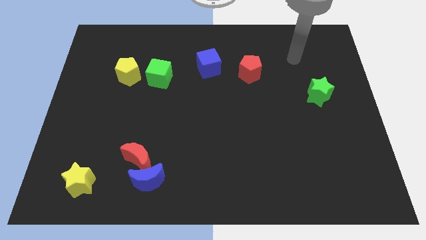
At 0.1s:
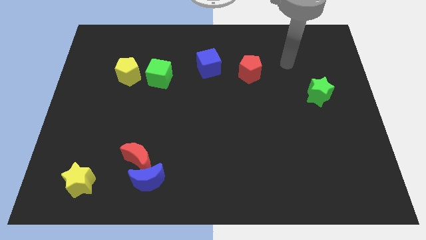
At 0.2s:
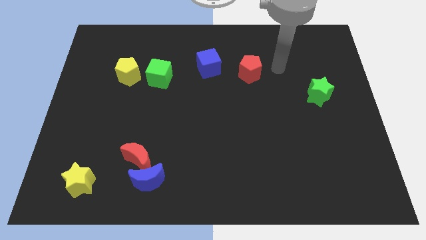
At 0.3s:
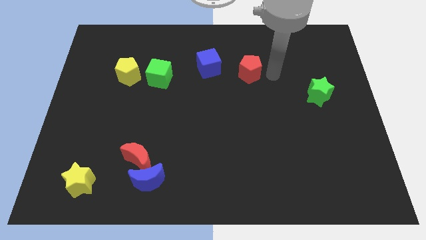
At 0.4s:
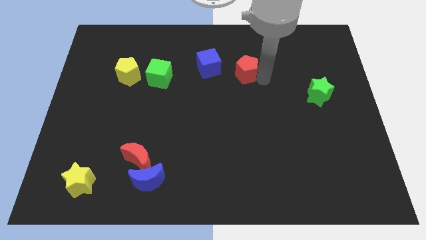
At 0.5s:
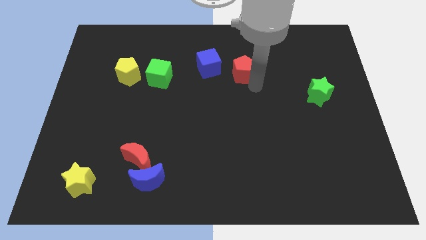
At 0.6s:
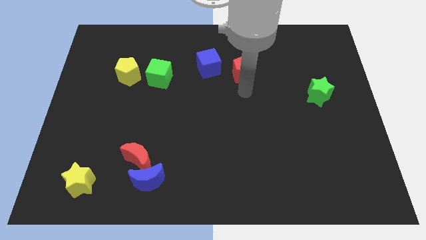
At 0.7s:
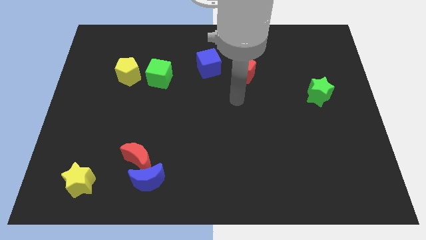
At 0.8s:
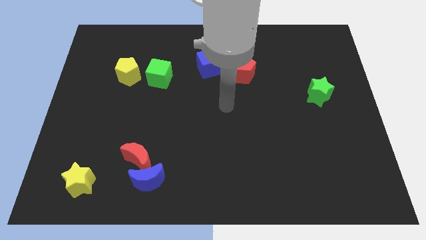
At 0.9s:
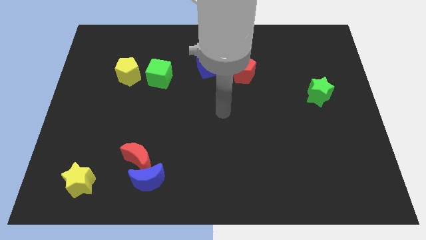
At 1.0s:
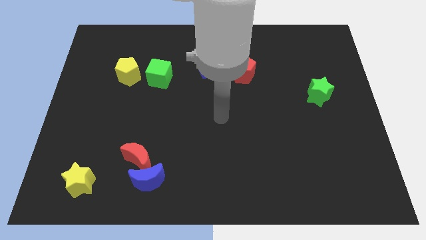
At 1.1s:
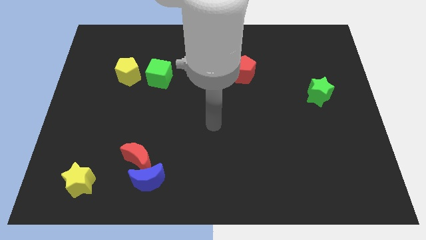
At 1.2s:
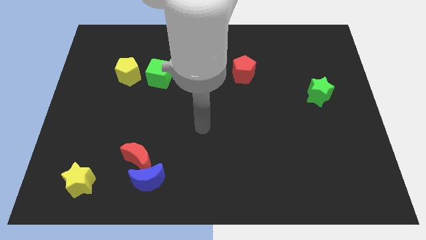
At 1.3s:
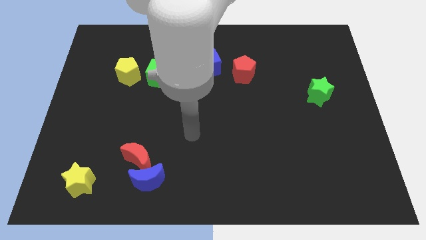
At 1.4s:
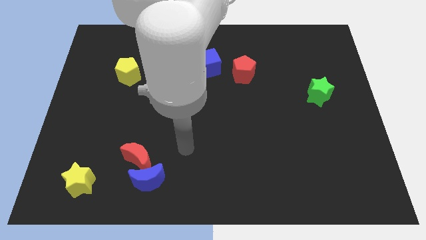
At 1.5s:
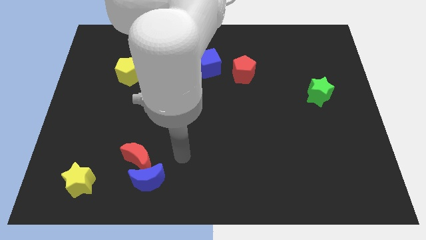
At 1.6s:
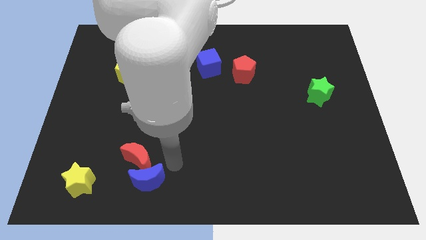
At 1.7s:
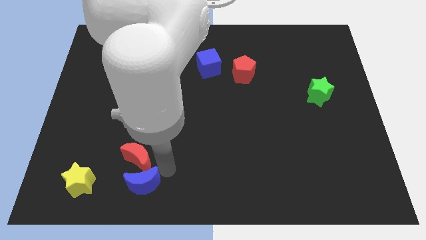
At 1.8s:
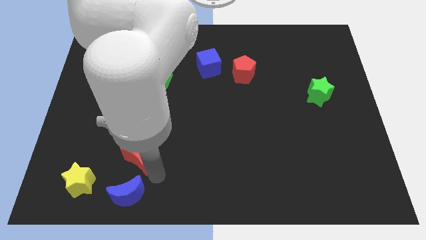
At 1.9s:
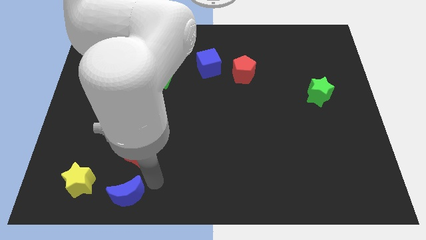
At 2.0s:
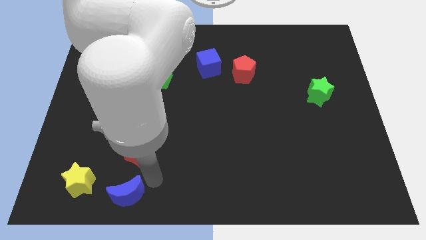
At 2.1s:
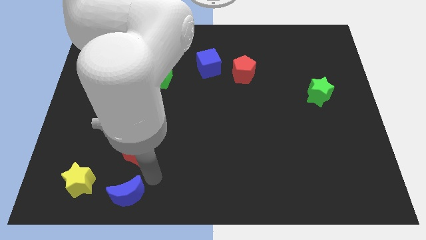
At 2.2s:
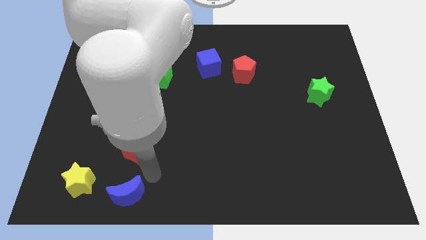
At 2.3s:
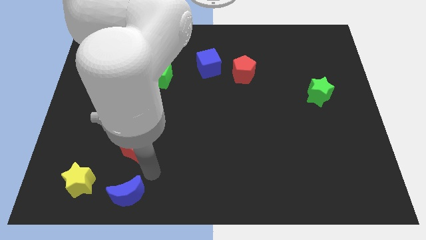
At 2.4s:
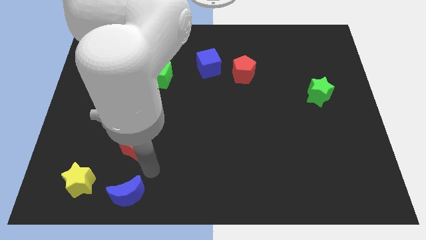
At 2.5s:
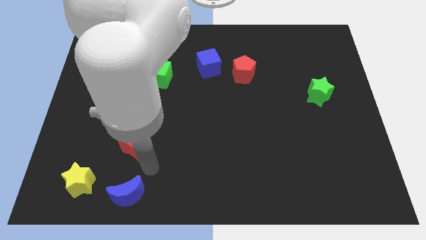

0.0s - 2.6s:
move the red moon away from the blue moon

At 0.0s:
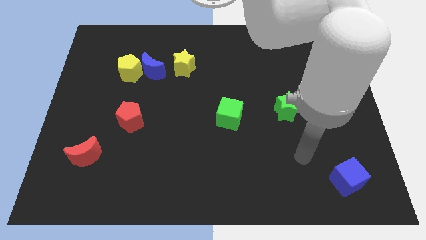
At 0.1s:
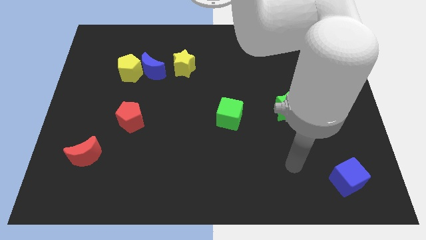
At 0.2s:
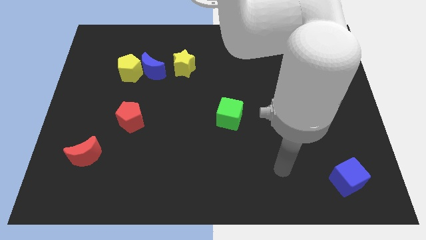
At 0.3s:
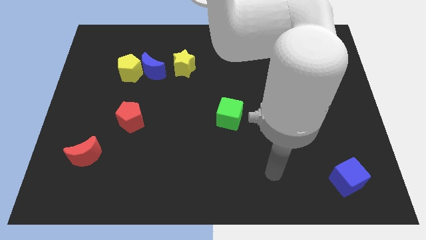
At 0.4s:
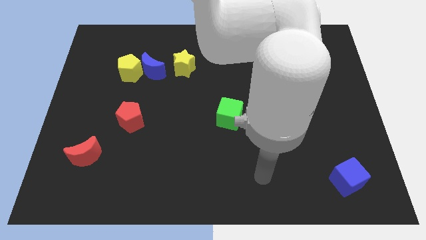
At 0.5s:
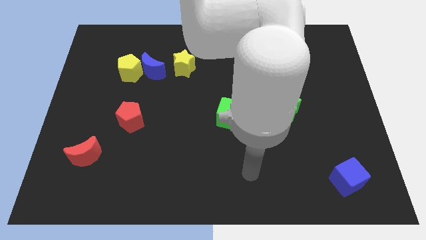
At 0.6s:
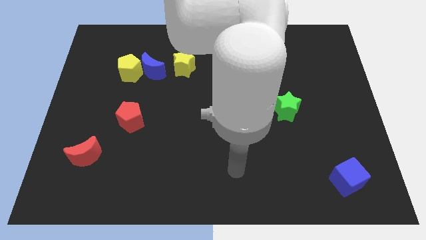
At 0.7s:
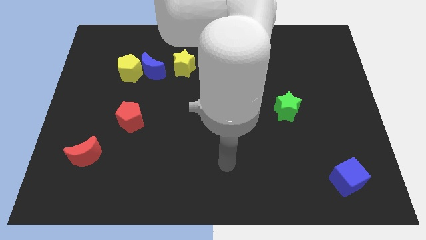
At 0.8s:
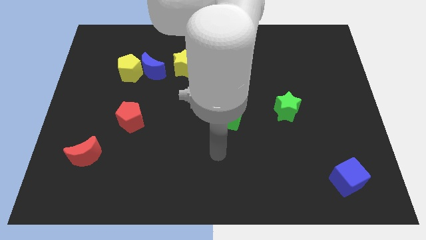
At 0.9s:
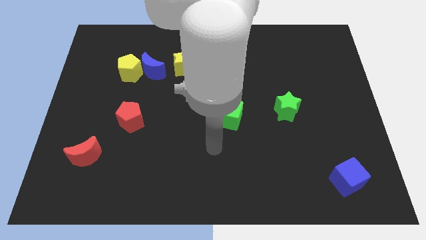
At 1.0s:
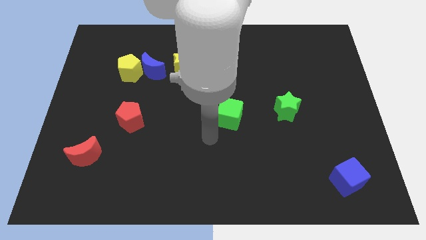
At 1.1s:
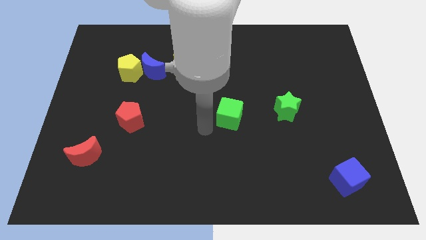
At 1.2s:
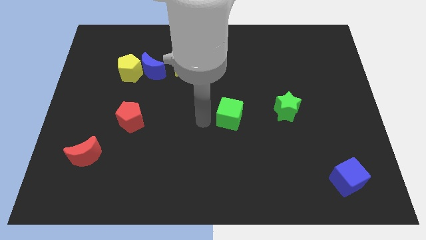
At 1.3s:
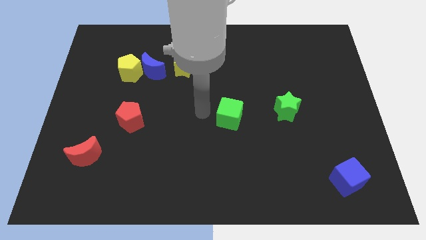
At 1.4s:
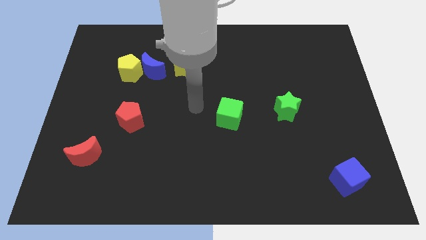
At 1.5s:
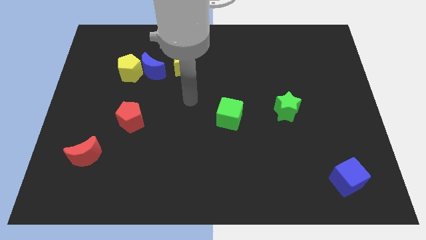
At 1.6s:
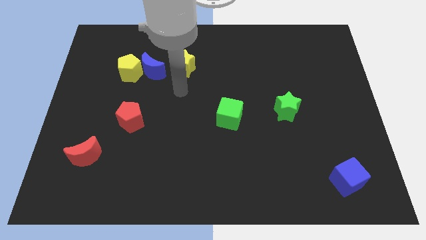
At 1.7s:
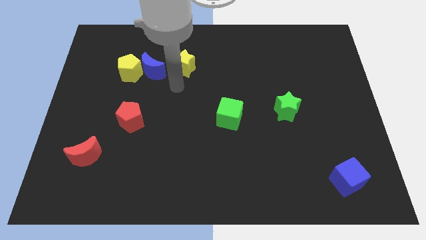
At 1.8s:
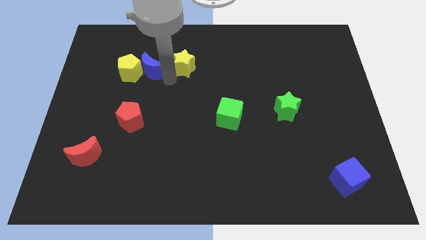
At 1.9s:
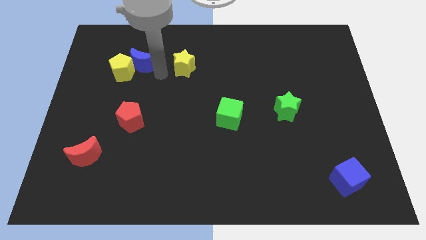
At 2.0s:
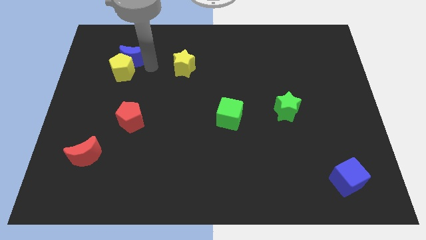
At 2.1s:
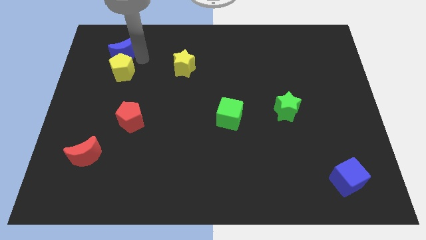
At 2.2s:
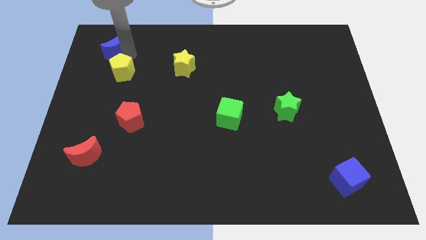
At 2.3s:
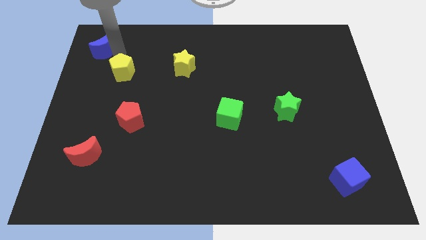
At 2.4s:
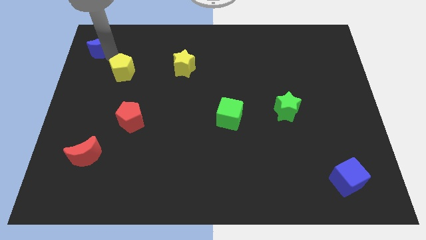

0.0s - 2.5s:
pull the yellow pentagon apart from the blue moon

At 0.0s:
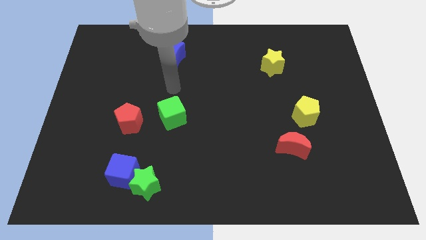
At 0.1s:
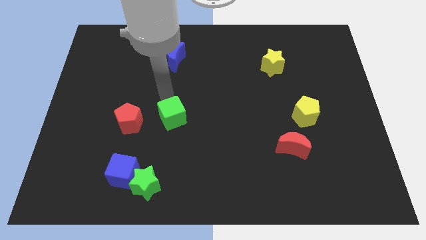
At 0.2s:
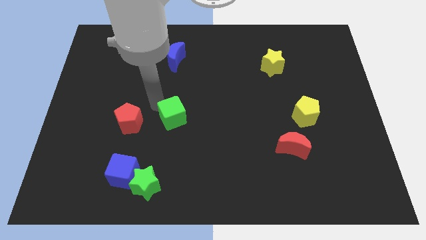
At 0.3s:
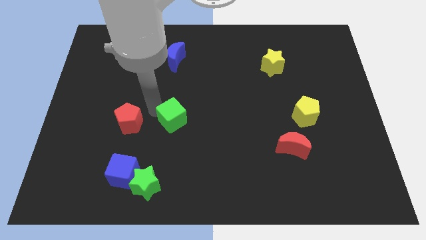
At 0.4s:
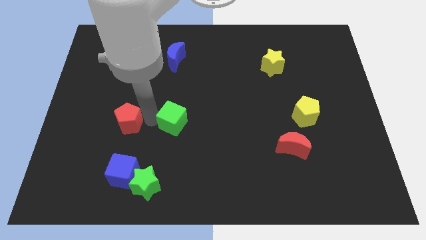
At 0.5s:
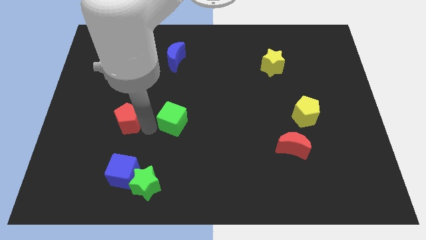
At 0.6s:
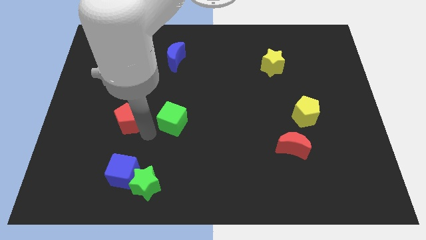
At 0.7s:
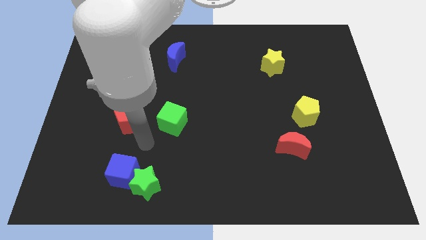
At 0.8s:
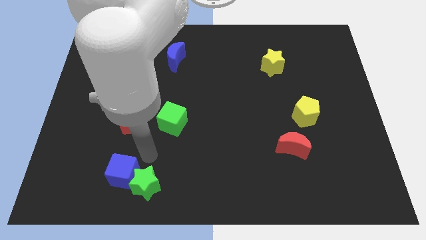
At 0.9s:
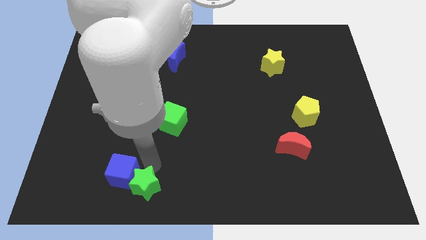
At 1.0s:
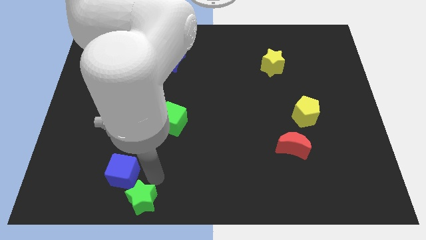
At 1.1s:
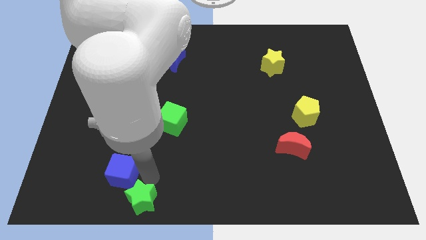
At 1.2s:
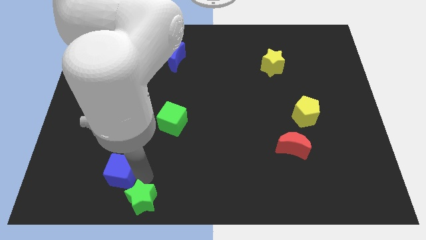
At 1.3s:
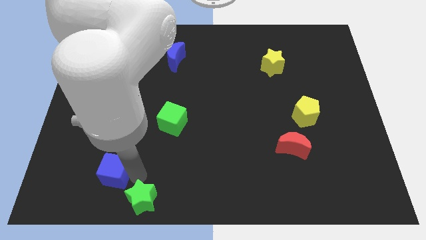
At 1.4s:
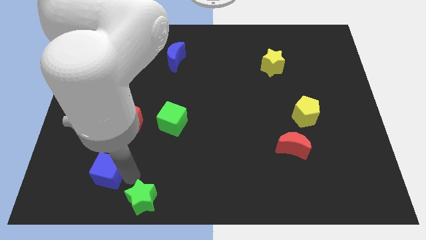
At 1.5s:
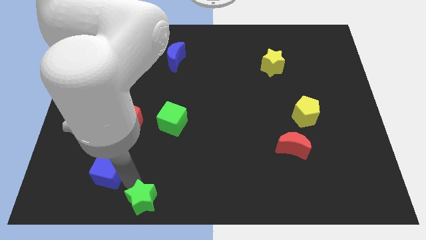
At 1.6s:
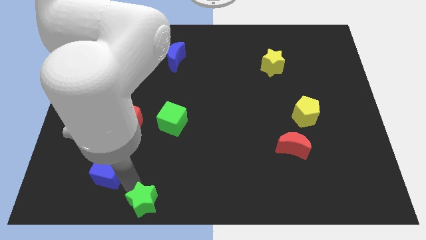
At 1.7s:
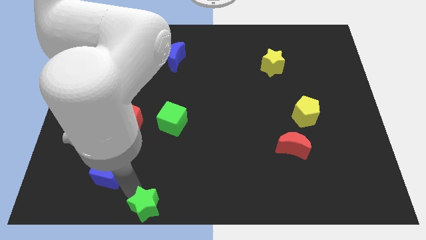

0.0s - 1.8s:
separate the blue cube from the green star

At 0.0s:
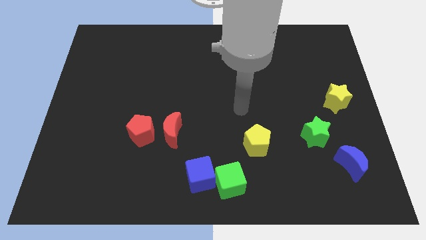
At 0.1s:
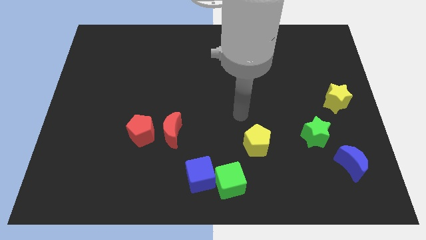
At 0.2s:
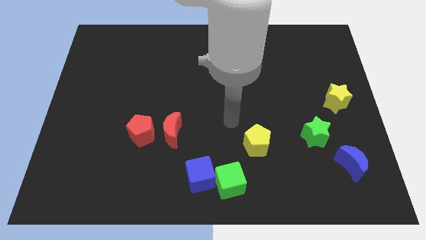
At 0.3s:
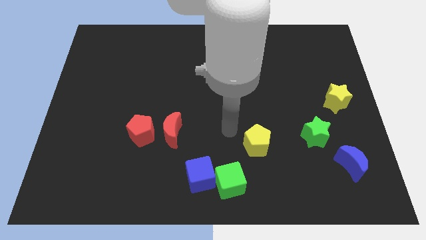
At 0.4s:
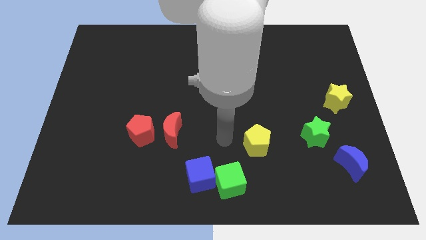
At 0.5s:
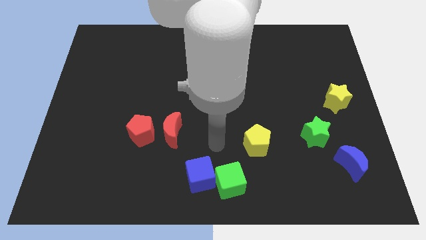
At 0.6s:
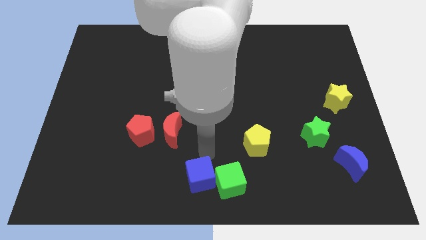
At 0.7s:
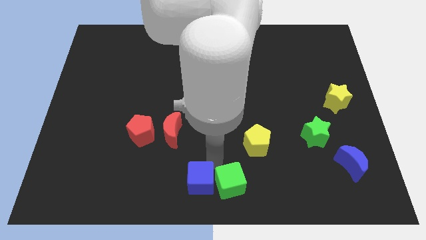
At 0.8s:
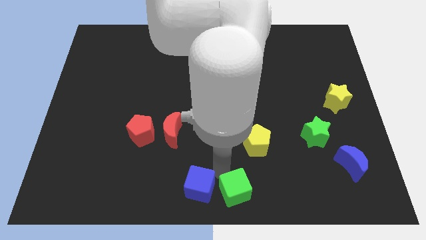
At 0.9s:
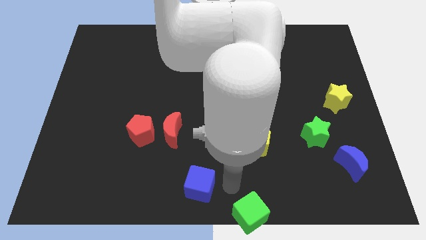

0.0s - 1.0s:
move the blue cube away from the green cube

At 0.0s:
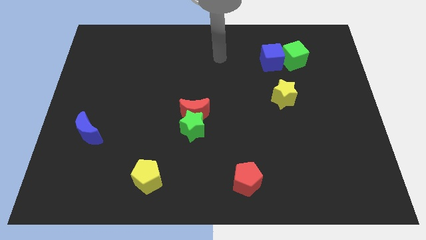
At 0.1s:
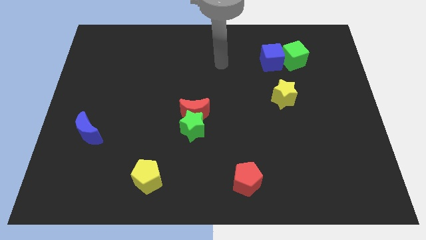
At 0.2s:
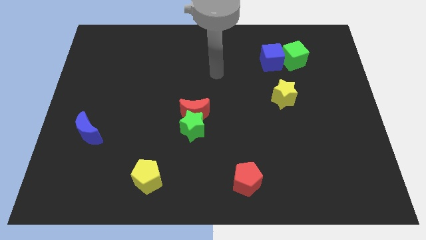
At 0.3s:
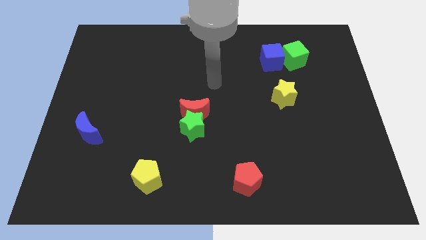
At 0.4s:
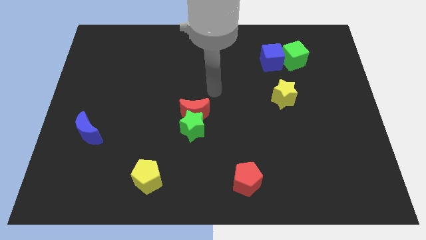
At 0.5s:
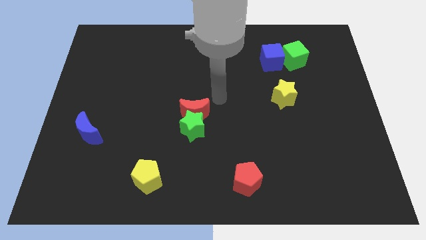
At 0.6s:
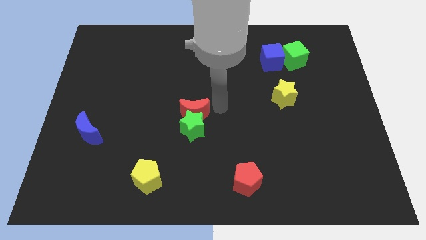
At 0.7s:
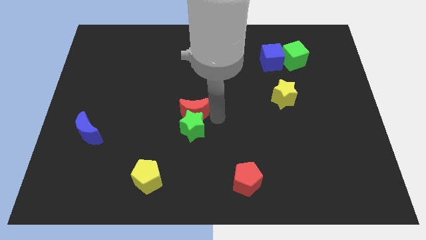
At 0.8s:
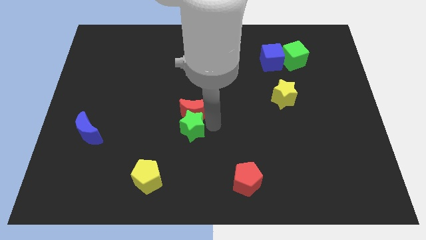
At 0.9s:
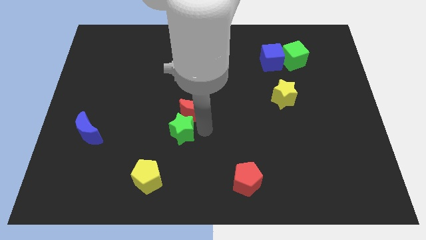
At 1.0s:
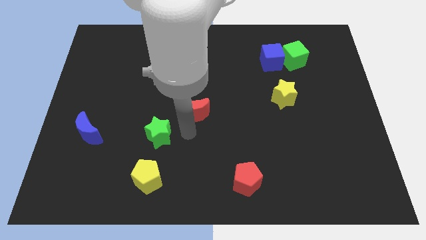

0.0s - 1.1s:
separate the red moon from the green star

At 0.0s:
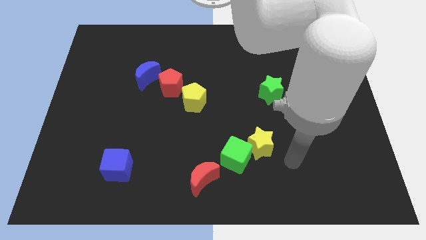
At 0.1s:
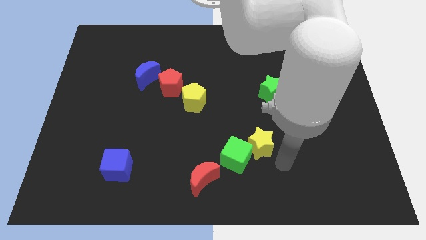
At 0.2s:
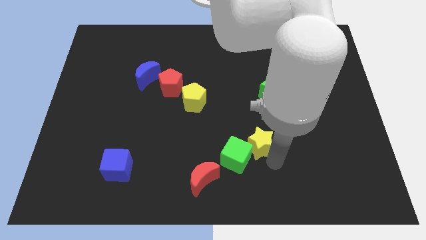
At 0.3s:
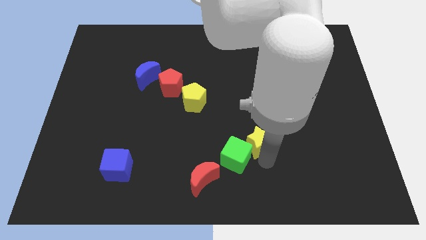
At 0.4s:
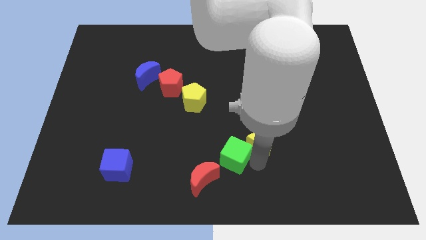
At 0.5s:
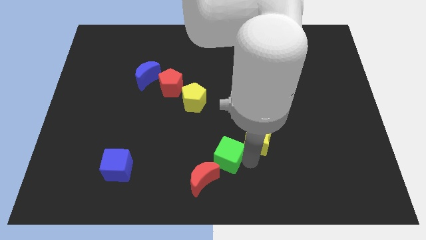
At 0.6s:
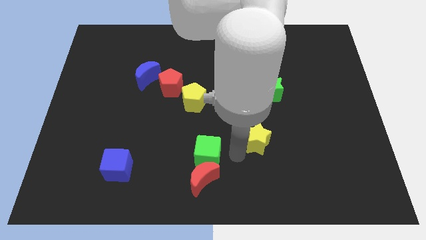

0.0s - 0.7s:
separate the yellow star from the green cube
